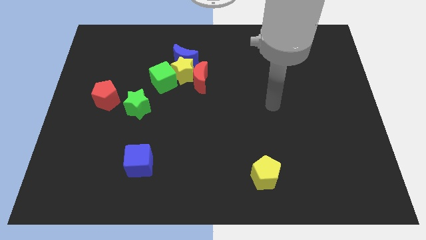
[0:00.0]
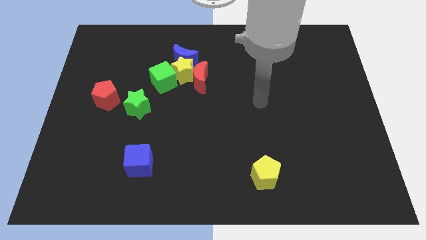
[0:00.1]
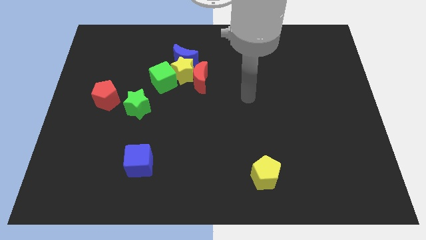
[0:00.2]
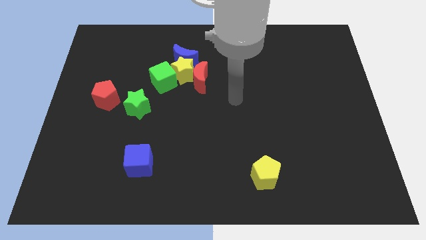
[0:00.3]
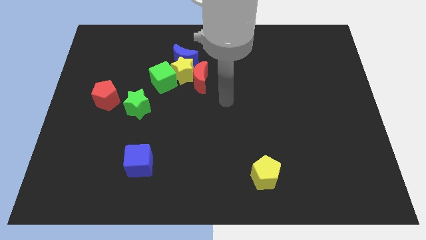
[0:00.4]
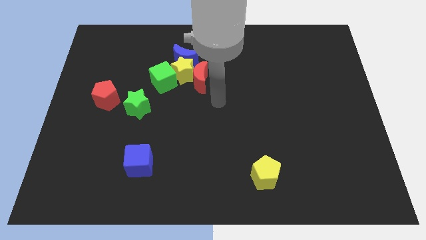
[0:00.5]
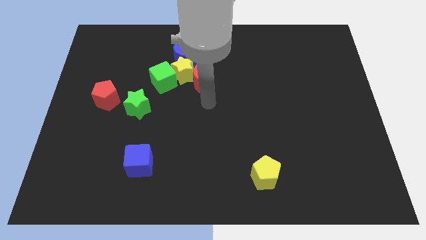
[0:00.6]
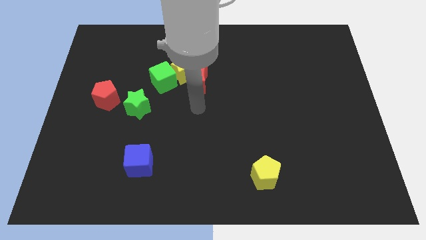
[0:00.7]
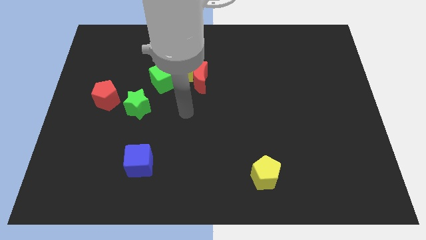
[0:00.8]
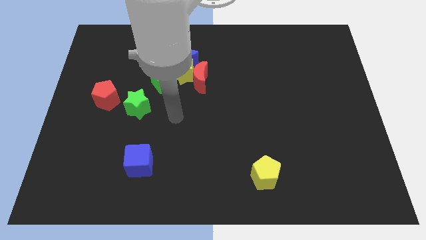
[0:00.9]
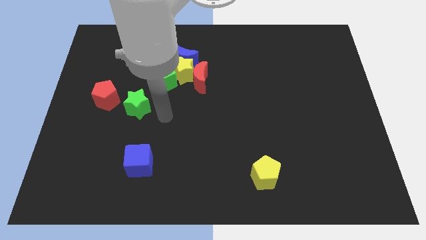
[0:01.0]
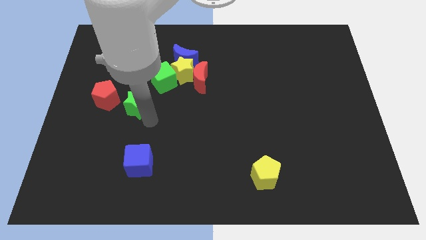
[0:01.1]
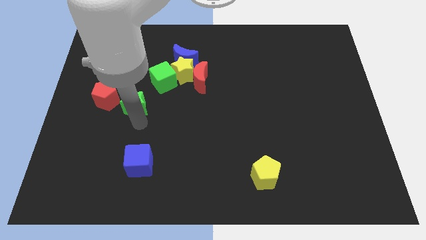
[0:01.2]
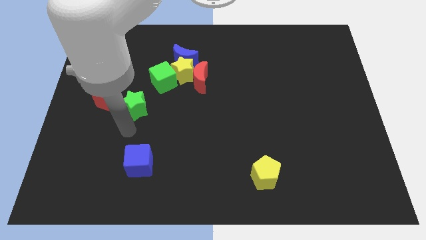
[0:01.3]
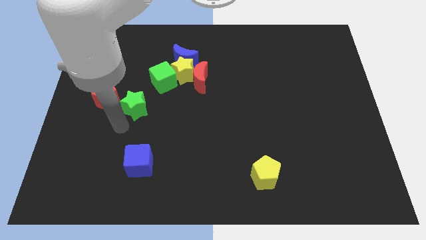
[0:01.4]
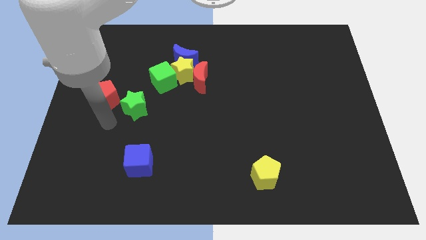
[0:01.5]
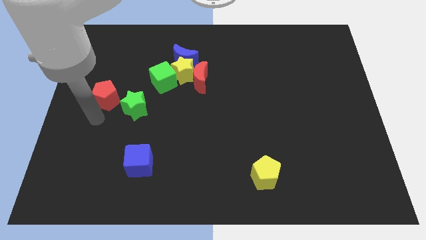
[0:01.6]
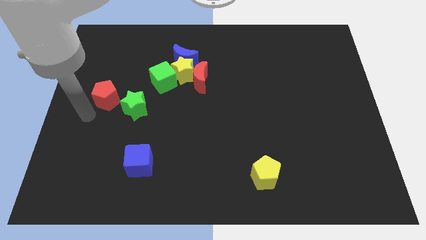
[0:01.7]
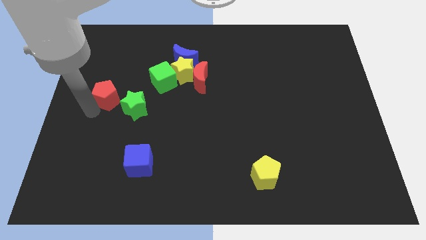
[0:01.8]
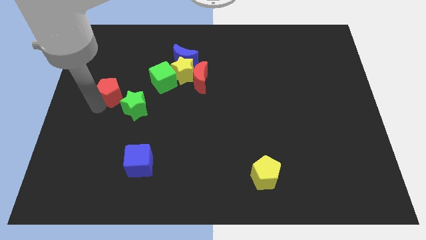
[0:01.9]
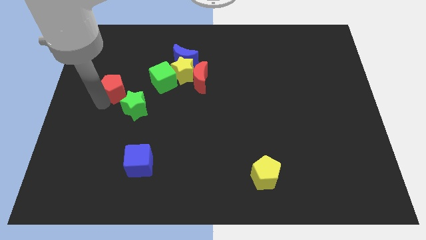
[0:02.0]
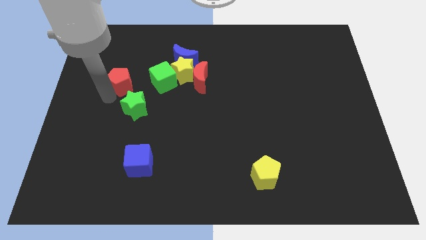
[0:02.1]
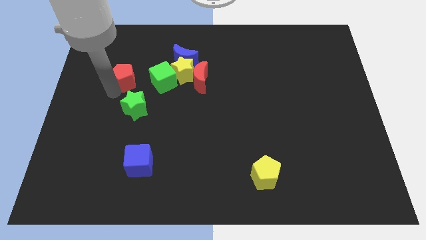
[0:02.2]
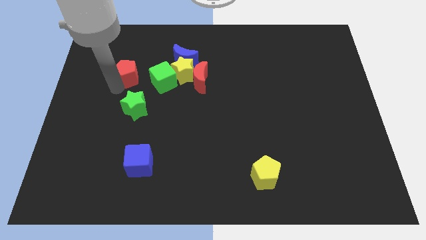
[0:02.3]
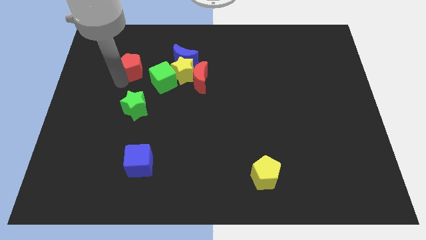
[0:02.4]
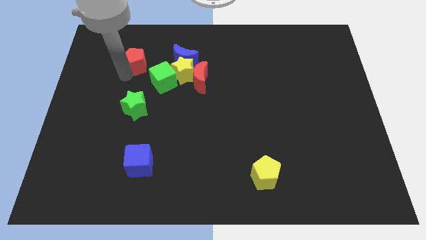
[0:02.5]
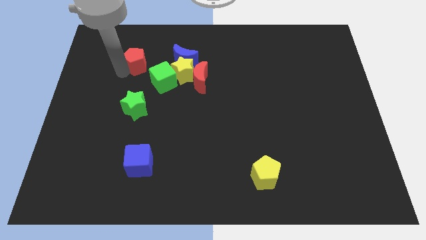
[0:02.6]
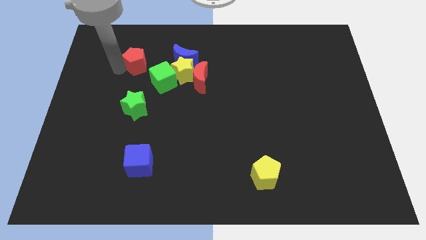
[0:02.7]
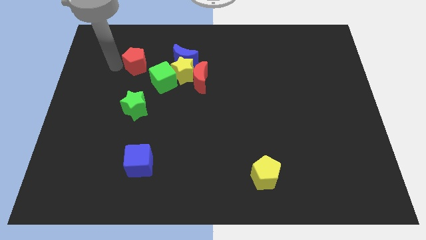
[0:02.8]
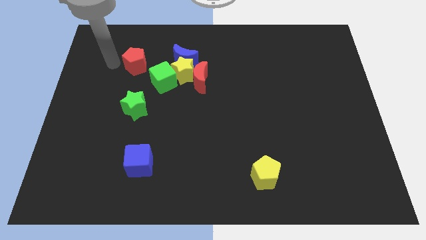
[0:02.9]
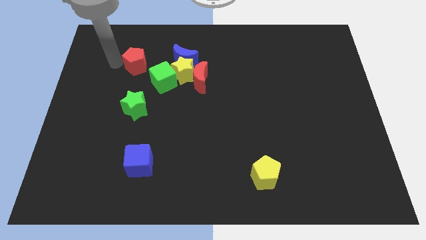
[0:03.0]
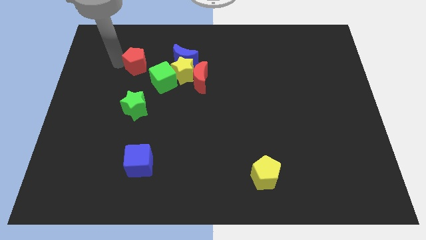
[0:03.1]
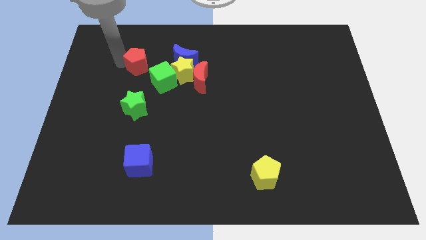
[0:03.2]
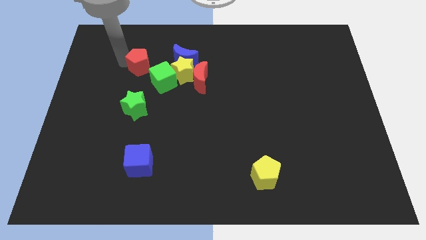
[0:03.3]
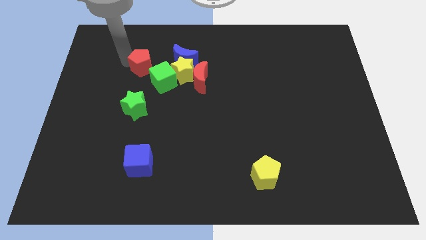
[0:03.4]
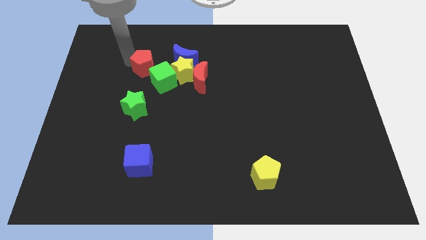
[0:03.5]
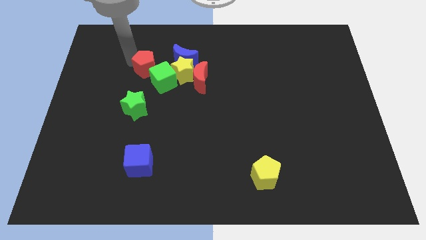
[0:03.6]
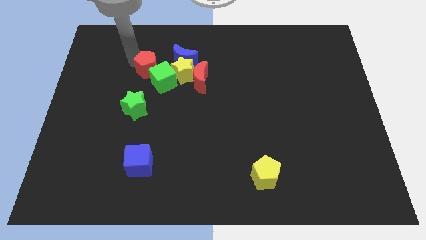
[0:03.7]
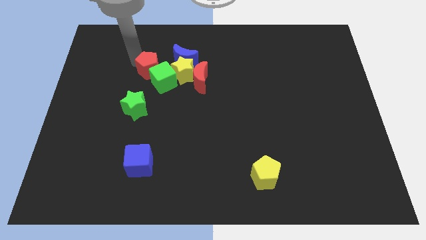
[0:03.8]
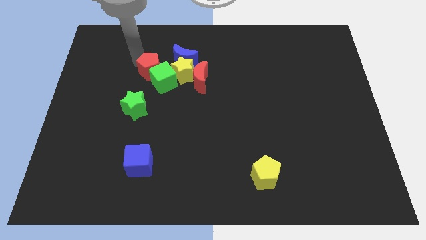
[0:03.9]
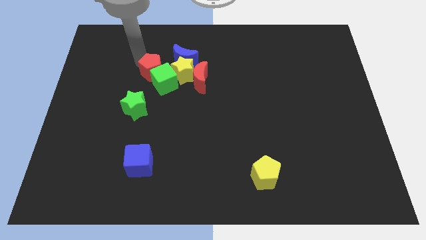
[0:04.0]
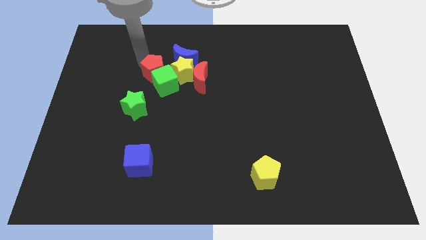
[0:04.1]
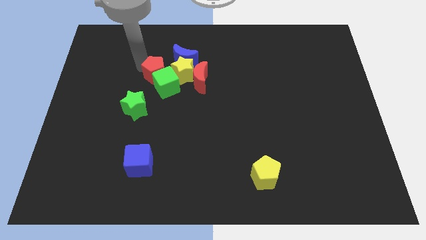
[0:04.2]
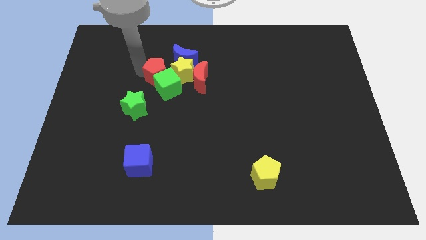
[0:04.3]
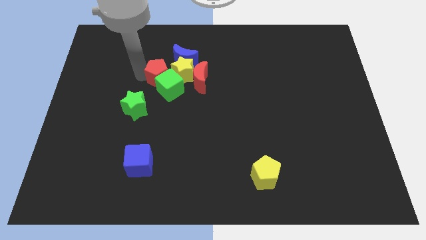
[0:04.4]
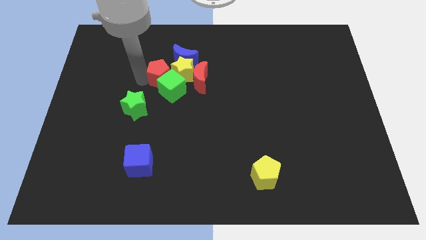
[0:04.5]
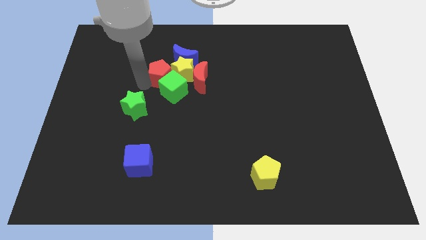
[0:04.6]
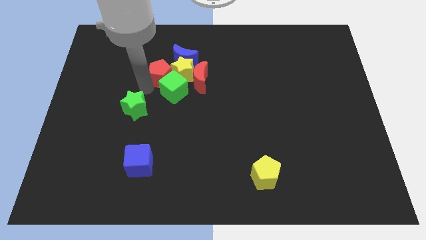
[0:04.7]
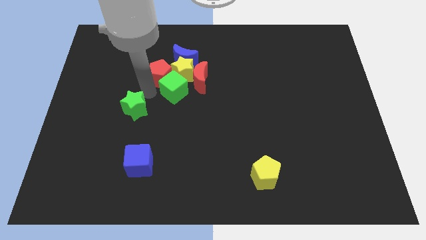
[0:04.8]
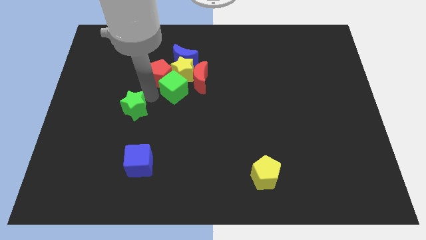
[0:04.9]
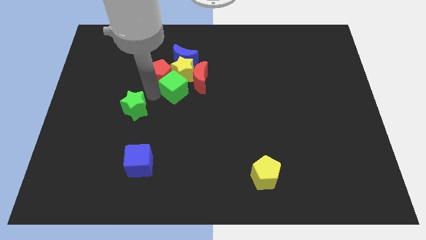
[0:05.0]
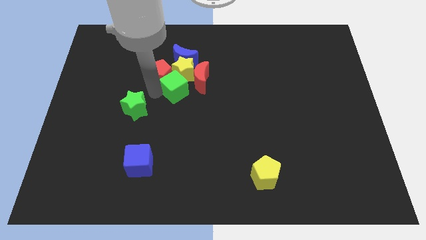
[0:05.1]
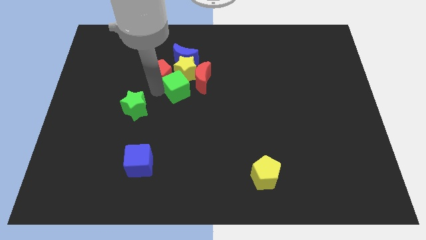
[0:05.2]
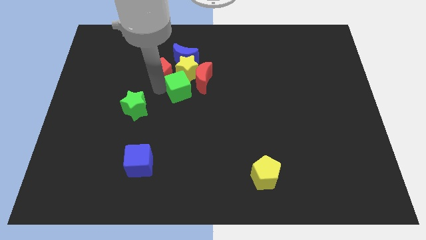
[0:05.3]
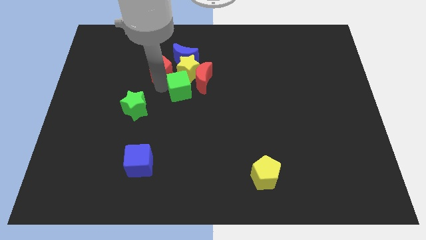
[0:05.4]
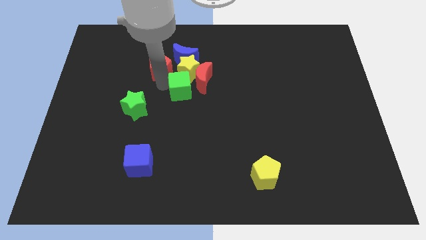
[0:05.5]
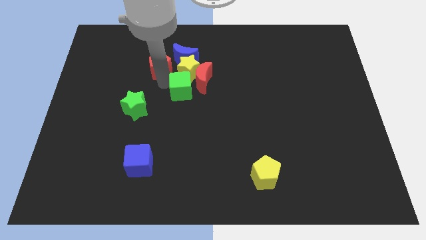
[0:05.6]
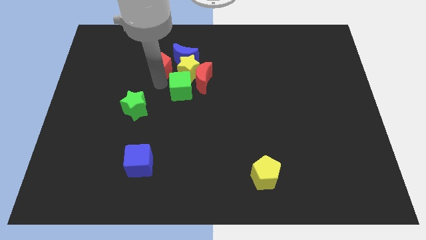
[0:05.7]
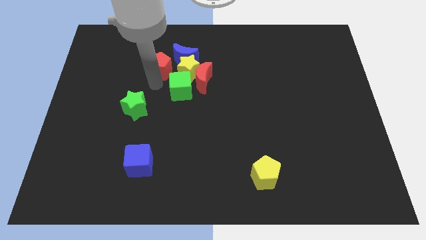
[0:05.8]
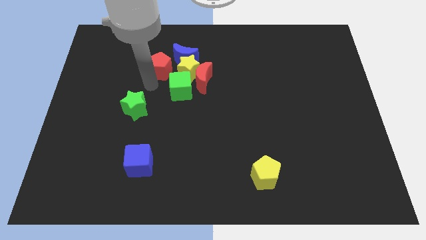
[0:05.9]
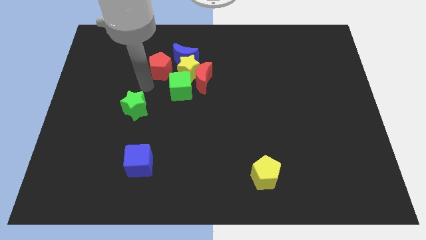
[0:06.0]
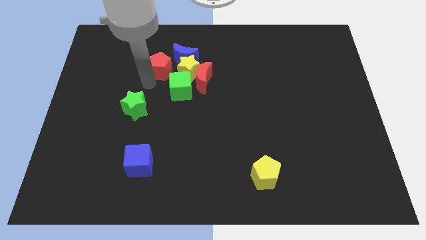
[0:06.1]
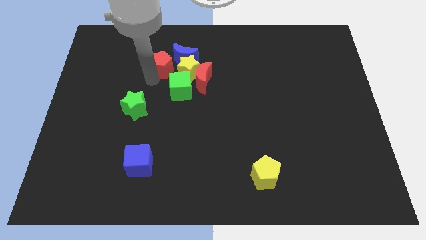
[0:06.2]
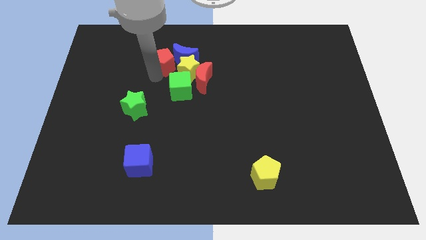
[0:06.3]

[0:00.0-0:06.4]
move the red pentagon towards the blue moon

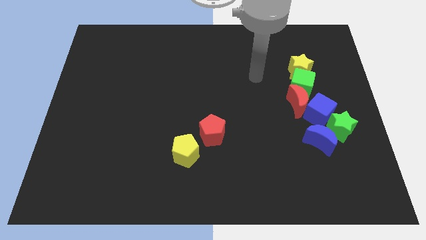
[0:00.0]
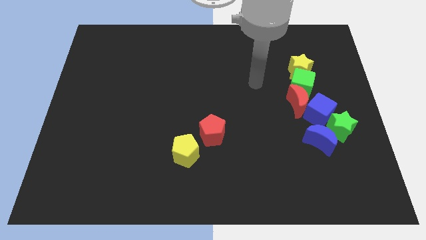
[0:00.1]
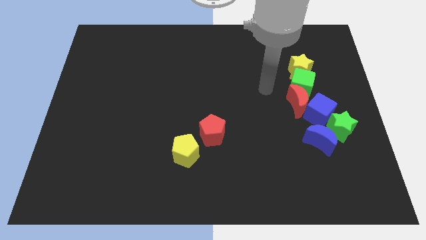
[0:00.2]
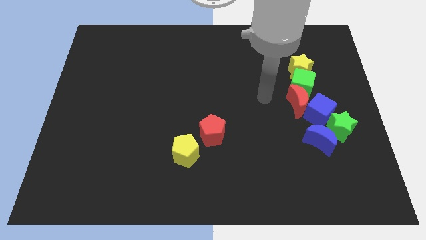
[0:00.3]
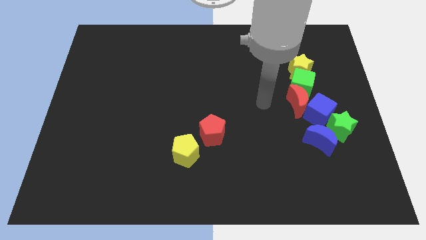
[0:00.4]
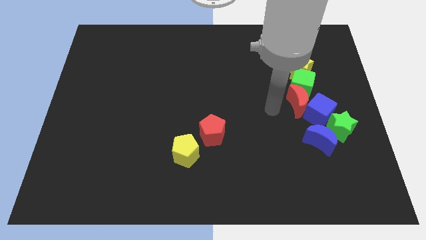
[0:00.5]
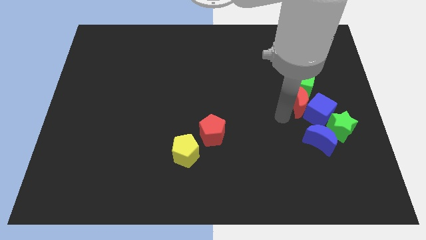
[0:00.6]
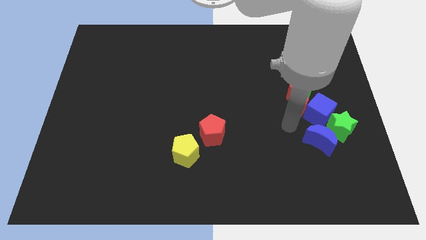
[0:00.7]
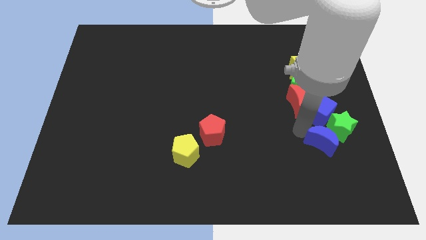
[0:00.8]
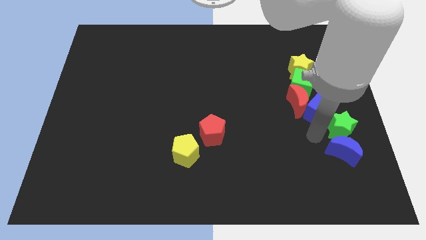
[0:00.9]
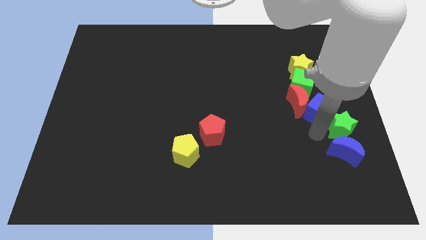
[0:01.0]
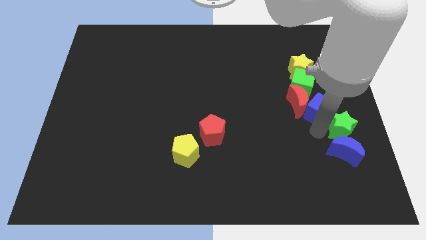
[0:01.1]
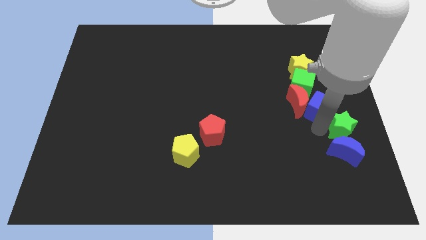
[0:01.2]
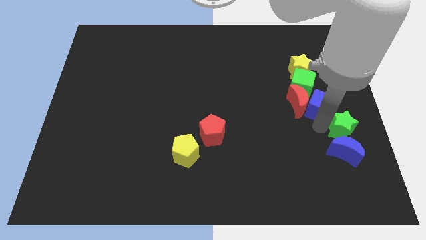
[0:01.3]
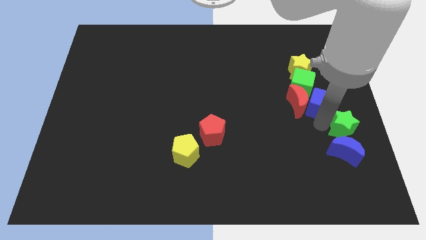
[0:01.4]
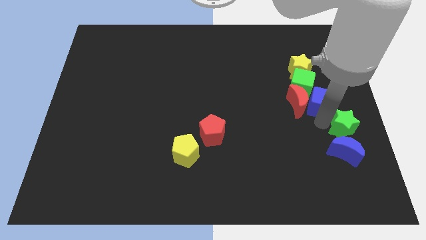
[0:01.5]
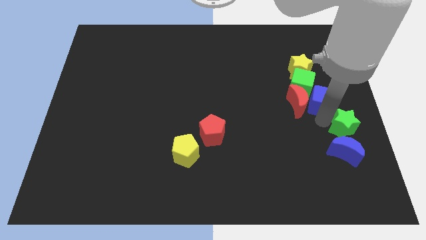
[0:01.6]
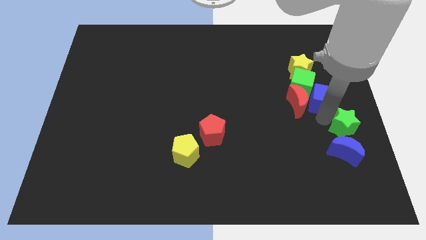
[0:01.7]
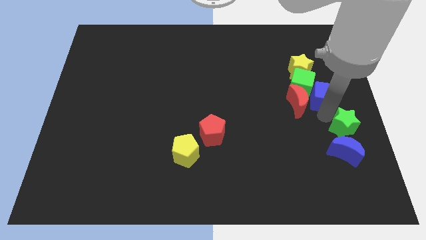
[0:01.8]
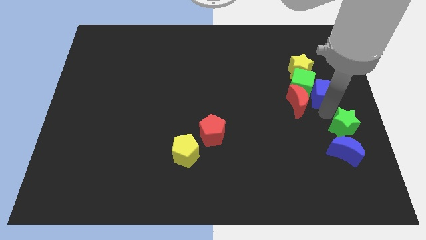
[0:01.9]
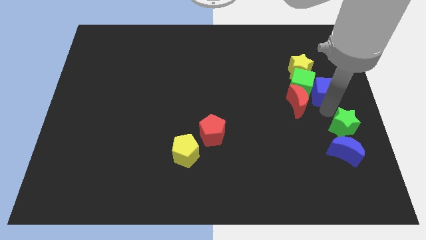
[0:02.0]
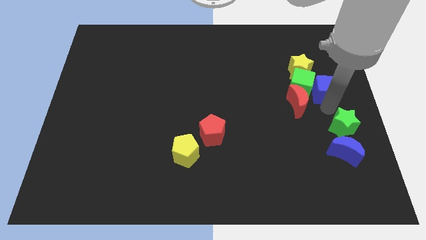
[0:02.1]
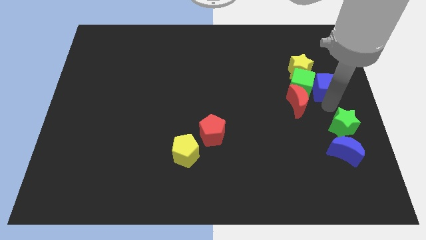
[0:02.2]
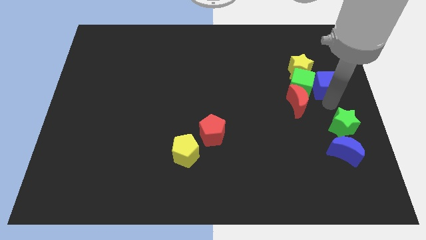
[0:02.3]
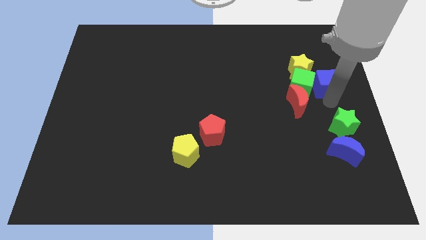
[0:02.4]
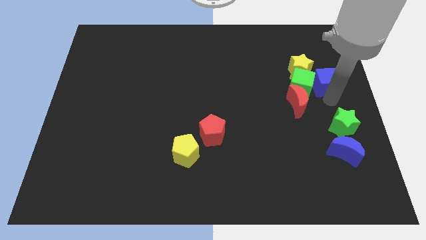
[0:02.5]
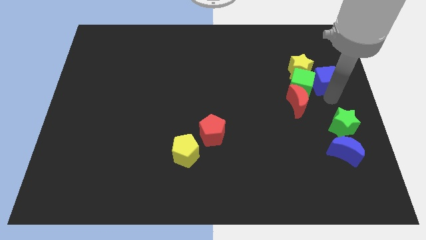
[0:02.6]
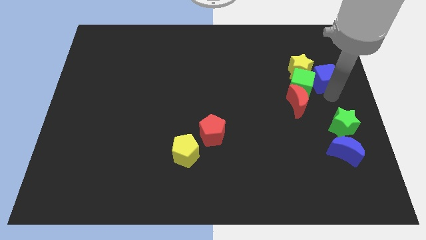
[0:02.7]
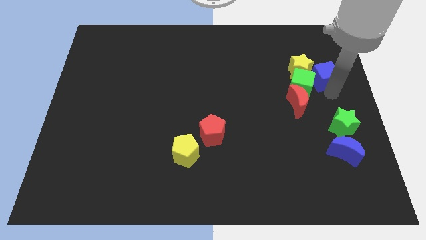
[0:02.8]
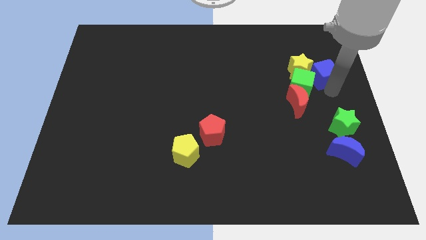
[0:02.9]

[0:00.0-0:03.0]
put the blue cube next to the yellow star
